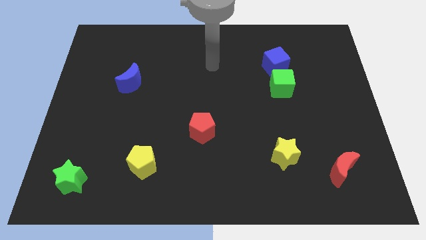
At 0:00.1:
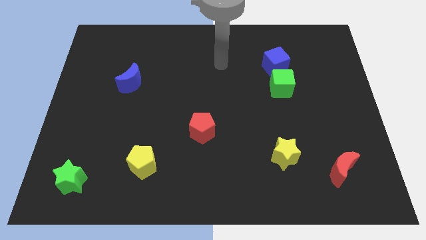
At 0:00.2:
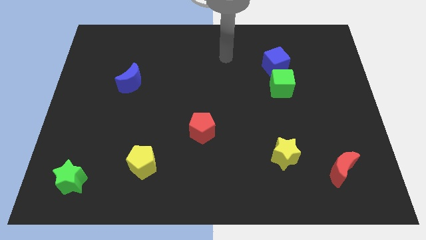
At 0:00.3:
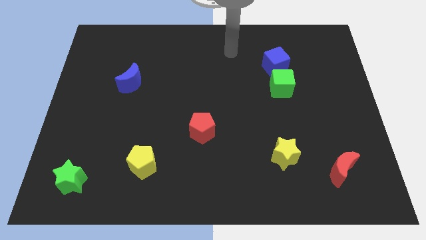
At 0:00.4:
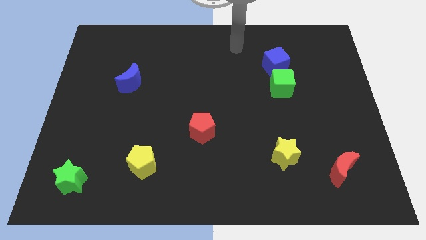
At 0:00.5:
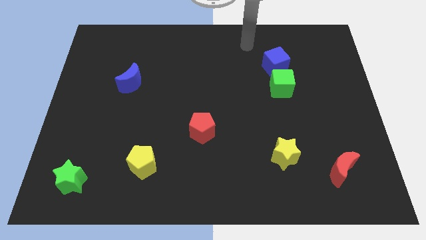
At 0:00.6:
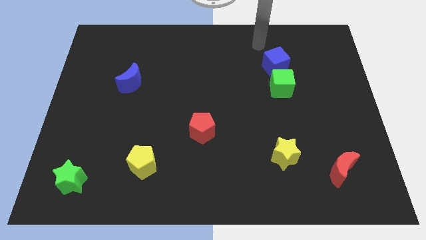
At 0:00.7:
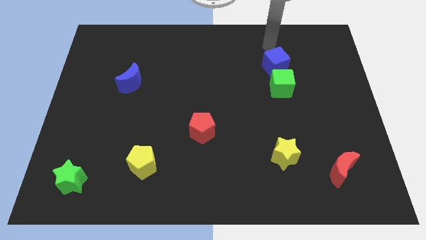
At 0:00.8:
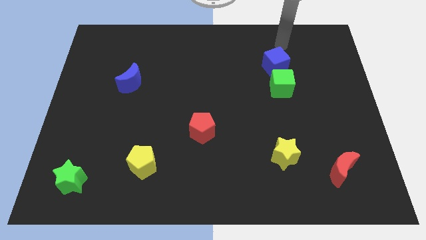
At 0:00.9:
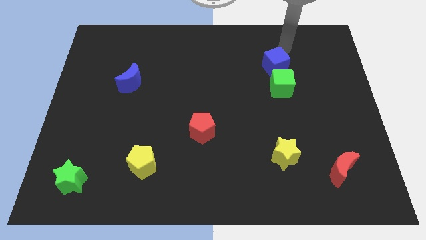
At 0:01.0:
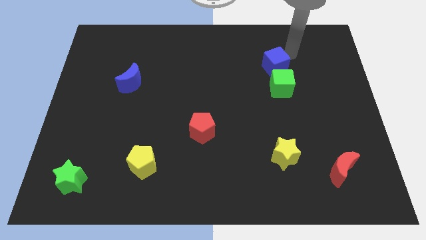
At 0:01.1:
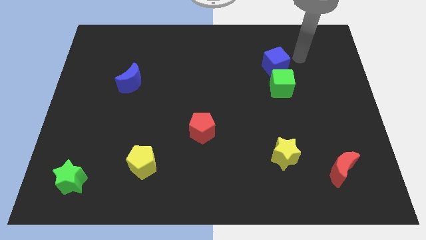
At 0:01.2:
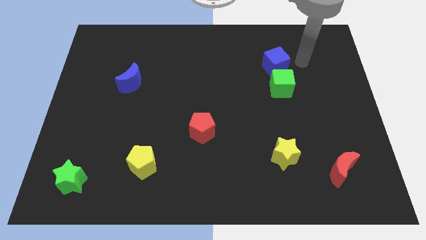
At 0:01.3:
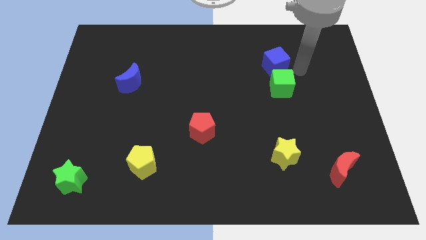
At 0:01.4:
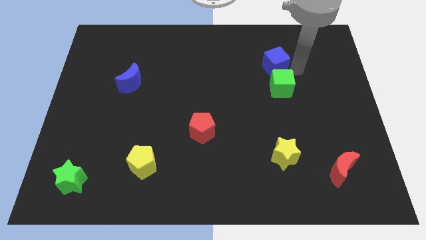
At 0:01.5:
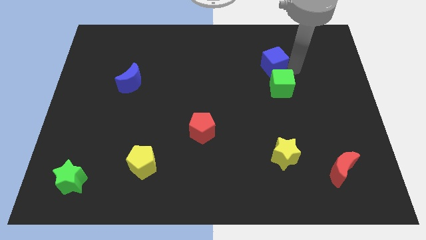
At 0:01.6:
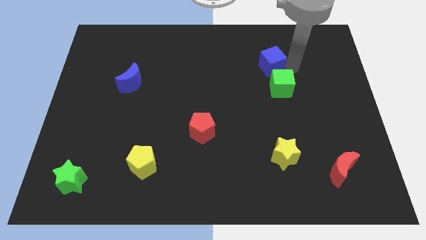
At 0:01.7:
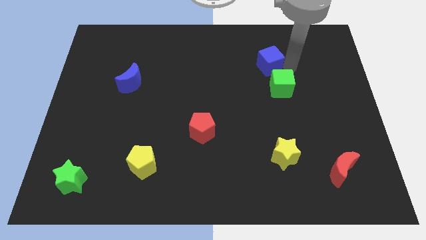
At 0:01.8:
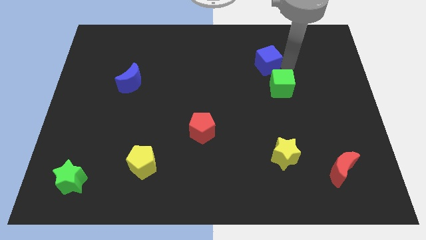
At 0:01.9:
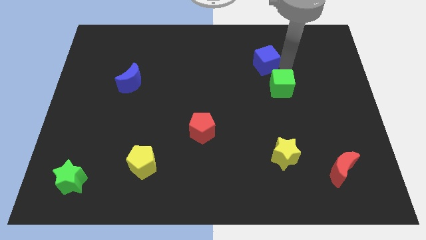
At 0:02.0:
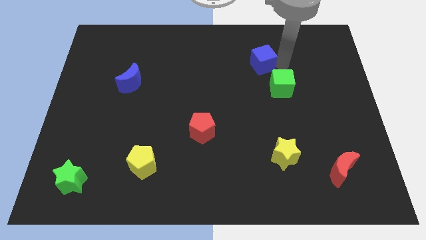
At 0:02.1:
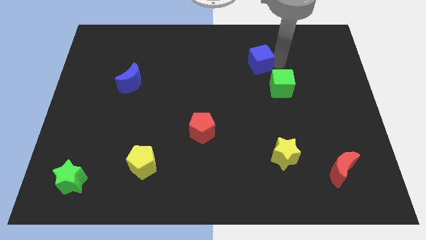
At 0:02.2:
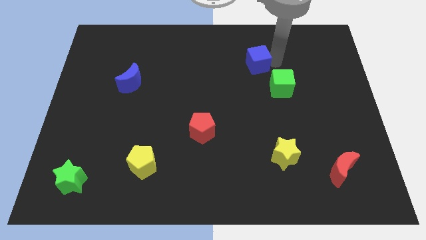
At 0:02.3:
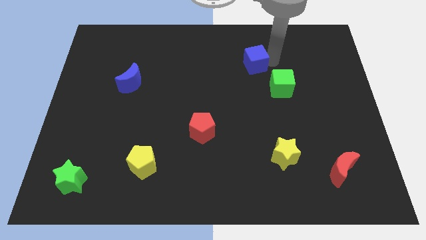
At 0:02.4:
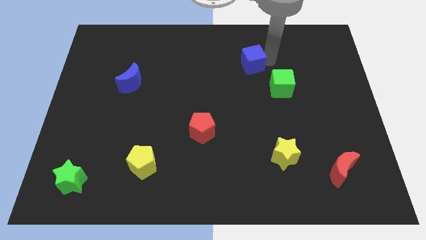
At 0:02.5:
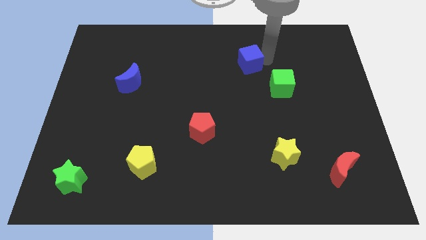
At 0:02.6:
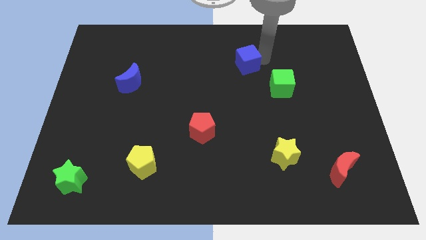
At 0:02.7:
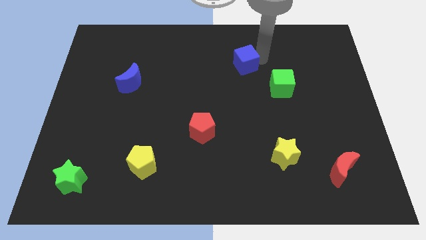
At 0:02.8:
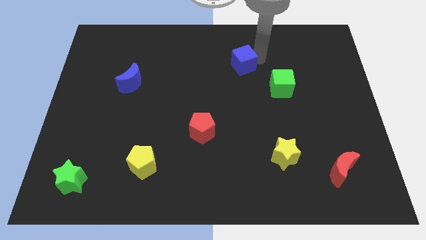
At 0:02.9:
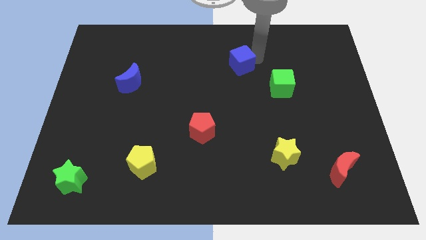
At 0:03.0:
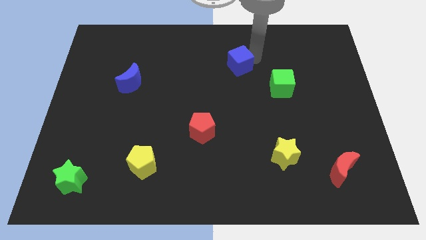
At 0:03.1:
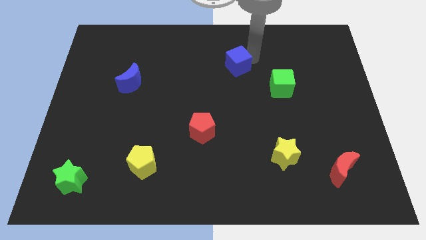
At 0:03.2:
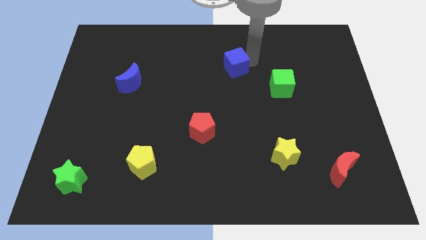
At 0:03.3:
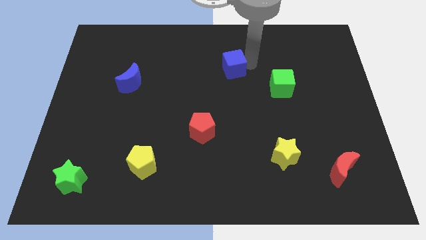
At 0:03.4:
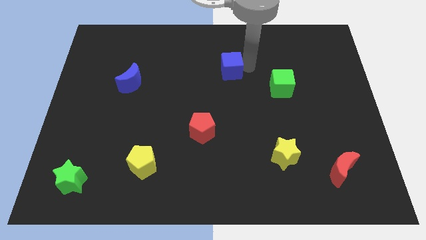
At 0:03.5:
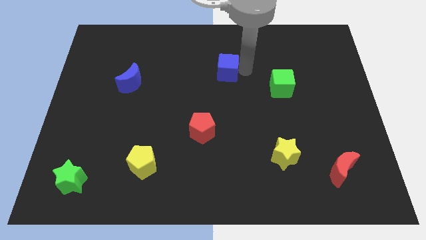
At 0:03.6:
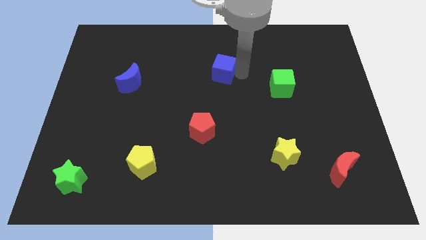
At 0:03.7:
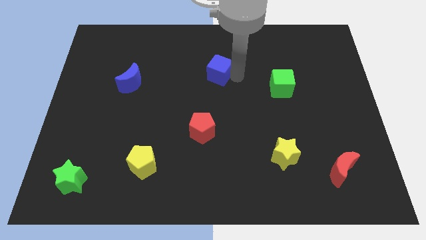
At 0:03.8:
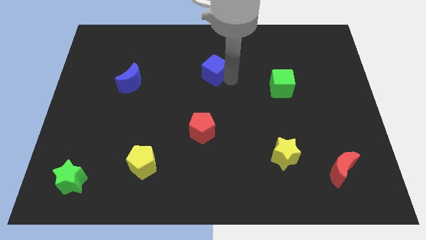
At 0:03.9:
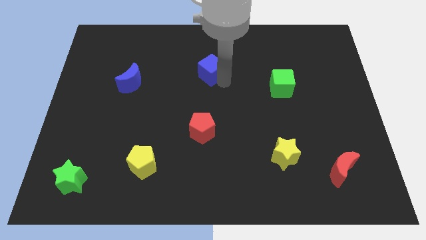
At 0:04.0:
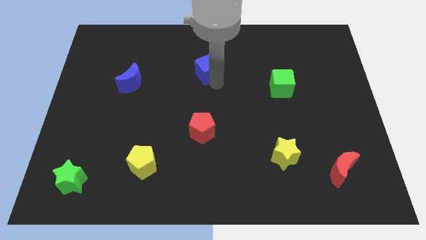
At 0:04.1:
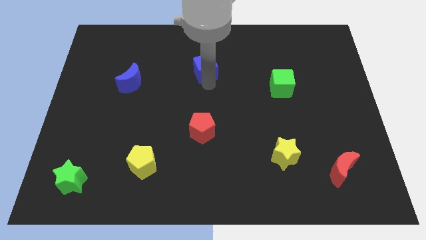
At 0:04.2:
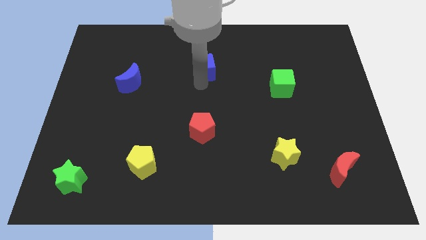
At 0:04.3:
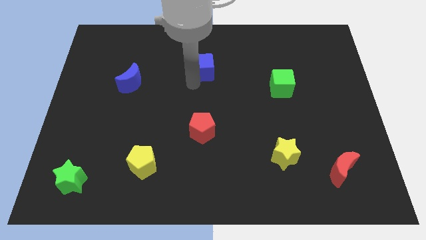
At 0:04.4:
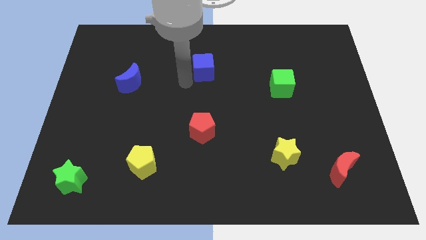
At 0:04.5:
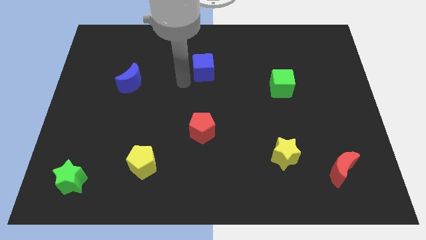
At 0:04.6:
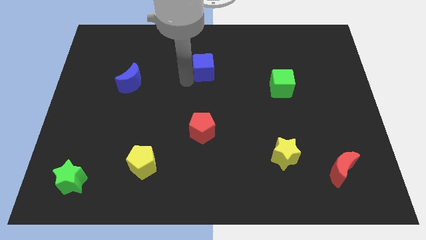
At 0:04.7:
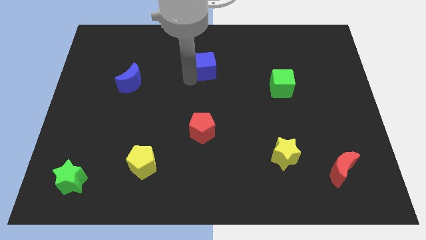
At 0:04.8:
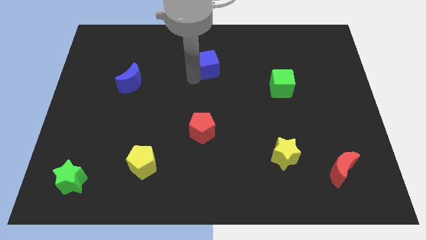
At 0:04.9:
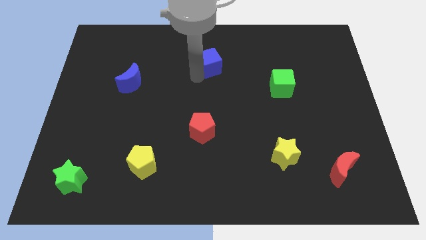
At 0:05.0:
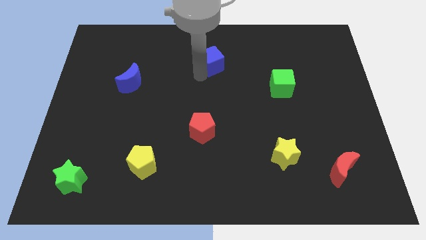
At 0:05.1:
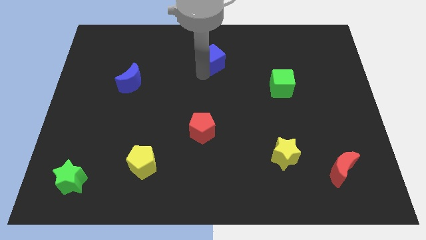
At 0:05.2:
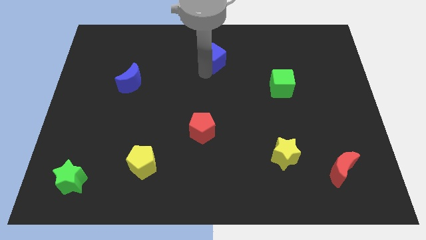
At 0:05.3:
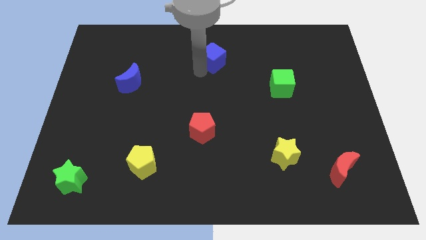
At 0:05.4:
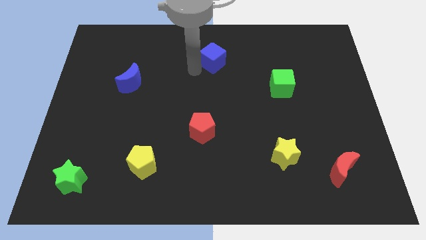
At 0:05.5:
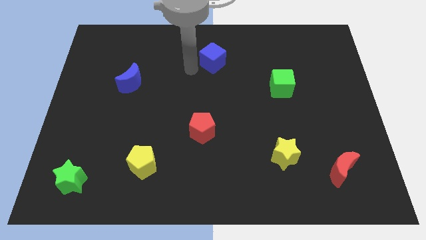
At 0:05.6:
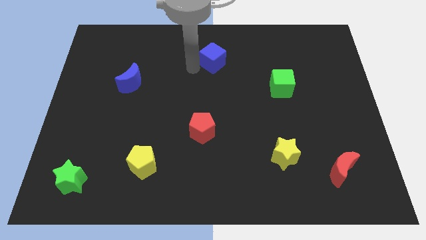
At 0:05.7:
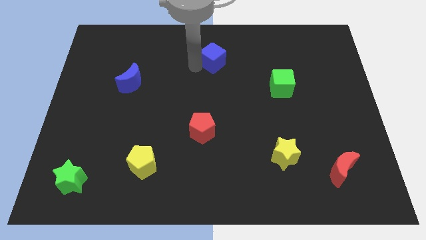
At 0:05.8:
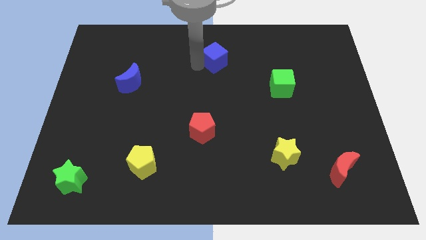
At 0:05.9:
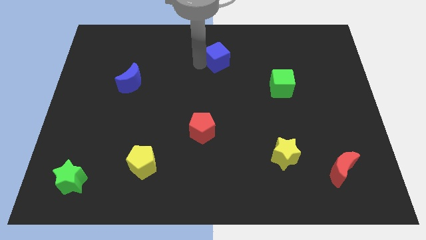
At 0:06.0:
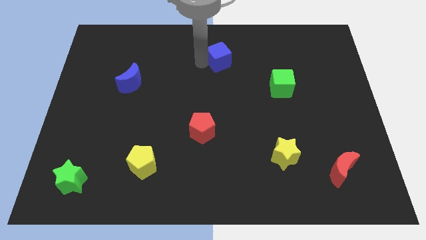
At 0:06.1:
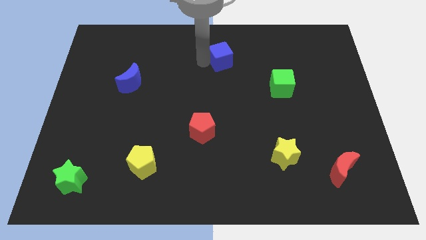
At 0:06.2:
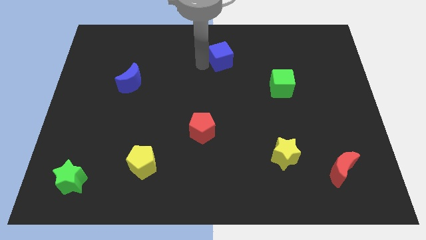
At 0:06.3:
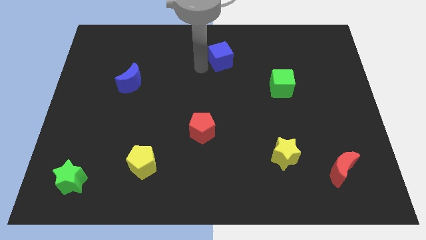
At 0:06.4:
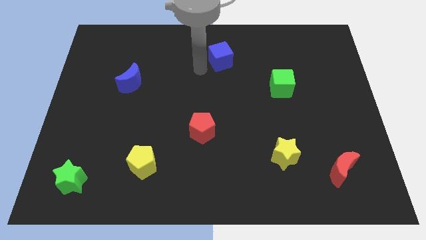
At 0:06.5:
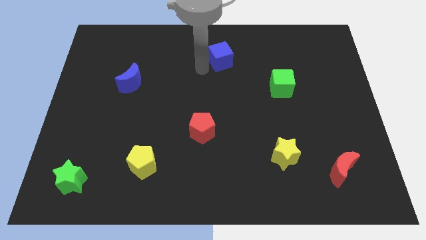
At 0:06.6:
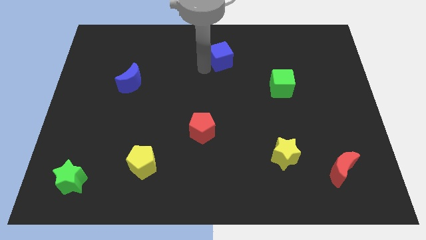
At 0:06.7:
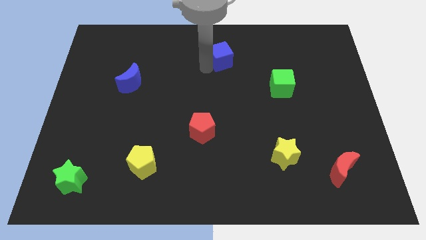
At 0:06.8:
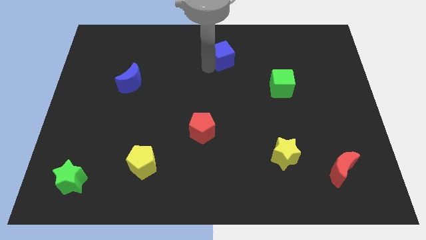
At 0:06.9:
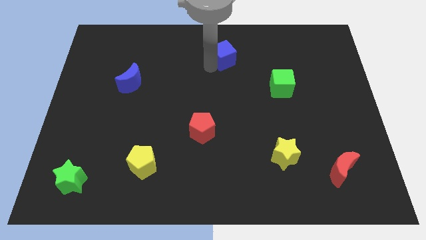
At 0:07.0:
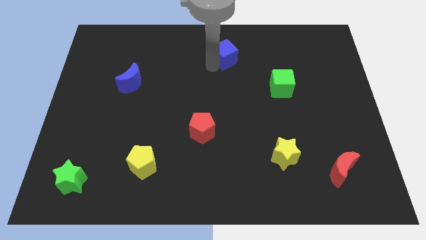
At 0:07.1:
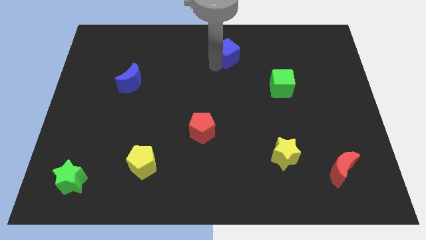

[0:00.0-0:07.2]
push the blue cube to the towards your base

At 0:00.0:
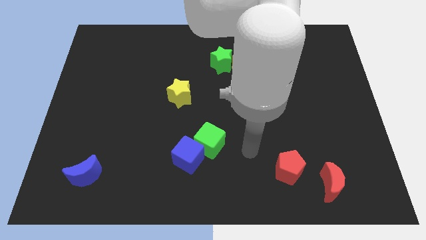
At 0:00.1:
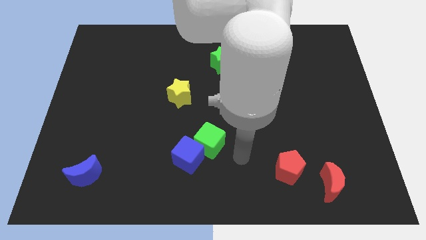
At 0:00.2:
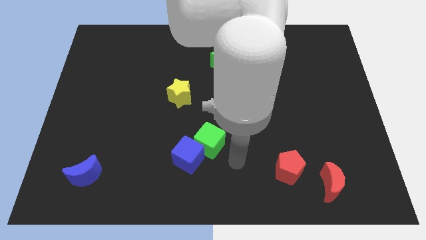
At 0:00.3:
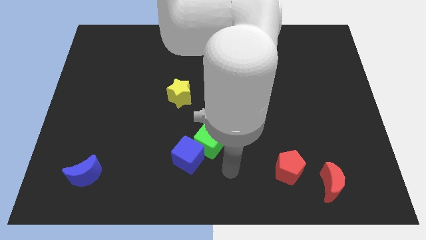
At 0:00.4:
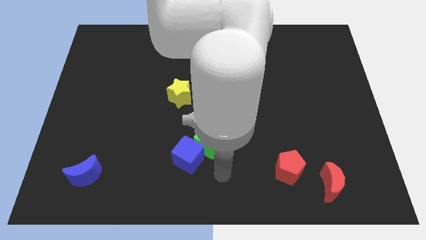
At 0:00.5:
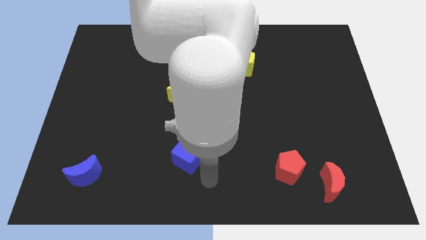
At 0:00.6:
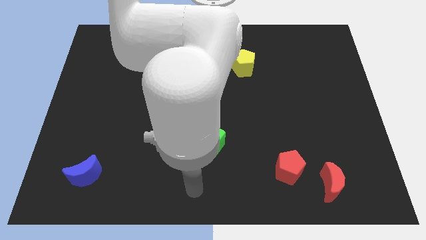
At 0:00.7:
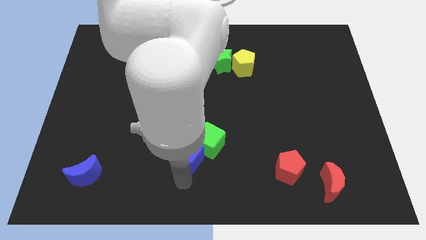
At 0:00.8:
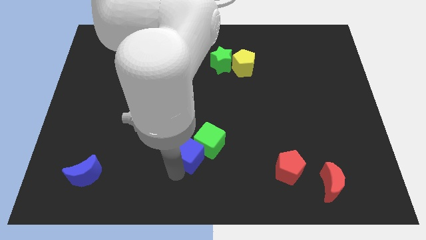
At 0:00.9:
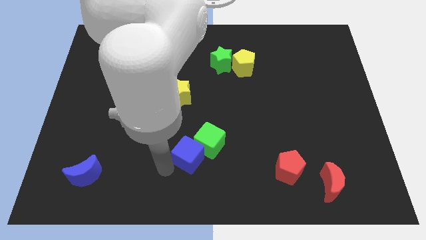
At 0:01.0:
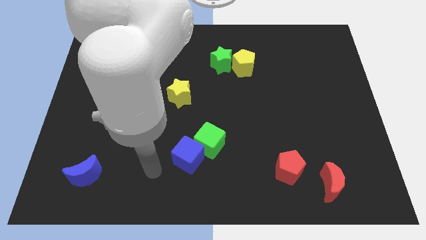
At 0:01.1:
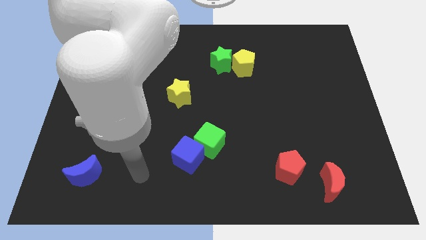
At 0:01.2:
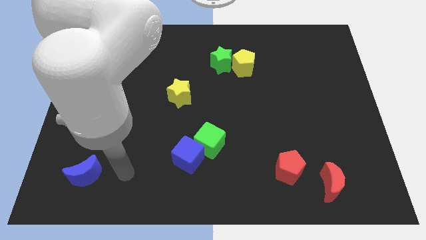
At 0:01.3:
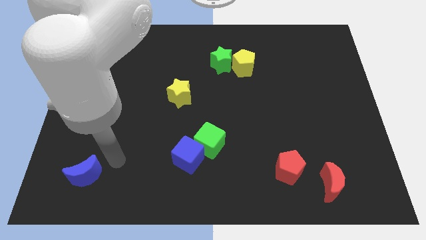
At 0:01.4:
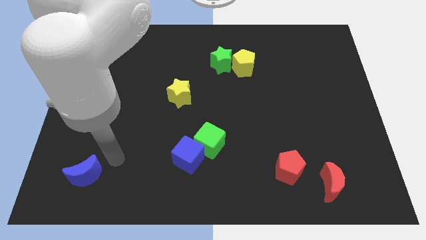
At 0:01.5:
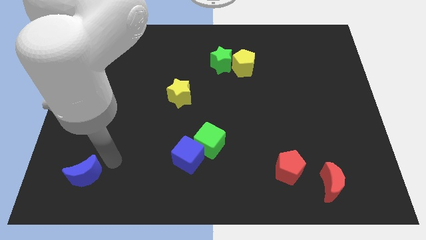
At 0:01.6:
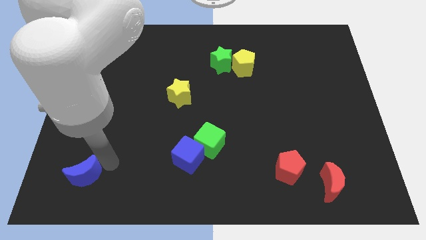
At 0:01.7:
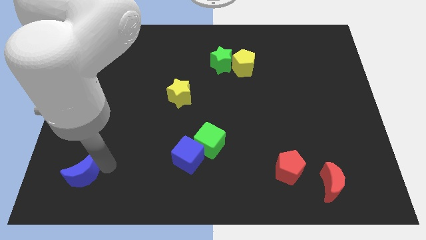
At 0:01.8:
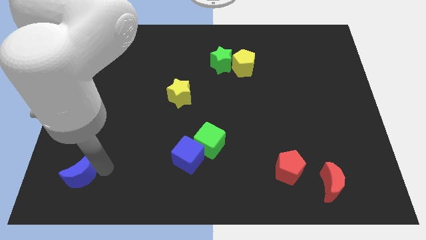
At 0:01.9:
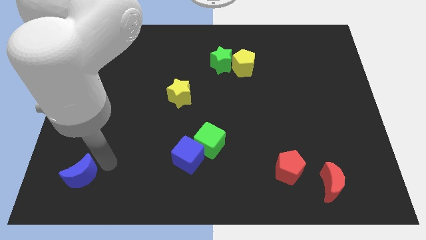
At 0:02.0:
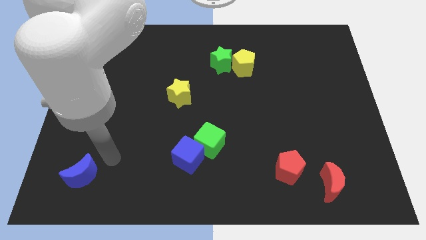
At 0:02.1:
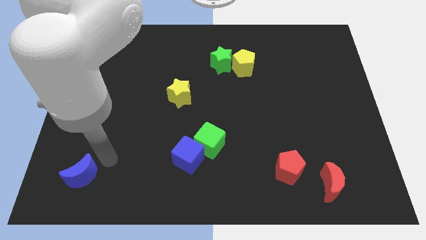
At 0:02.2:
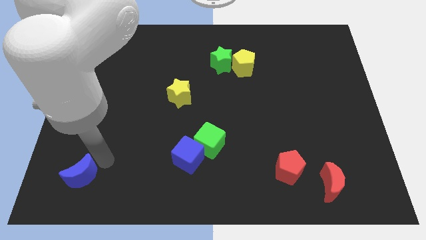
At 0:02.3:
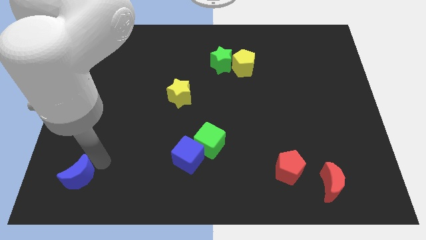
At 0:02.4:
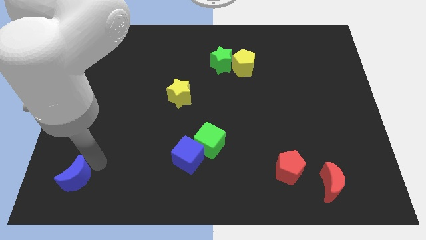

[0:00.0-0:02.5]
slide the blue moon to the bottom left of the board
